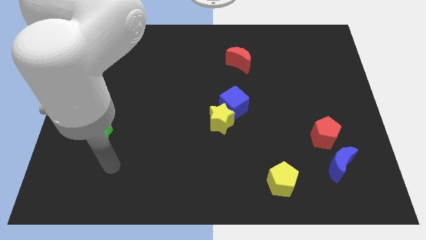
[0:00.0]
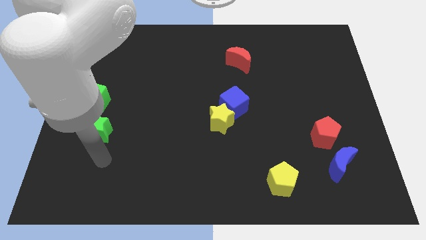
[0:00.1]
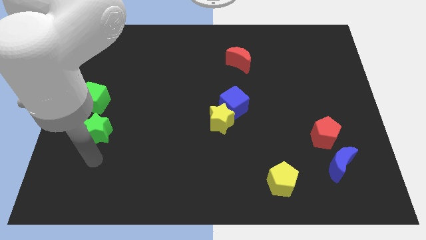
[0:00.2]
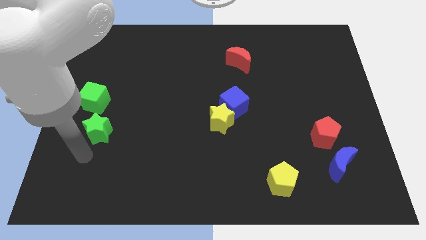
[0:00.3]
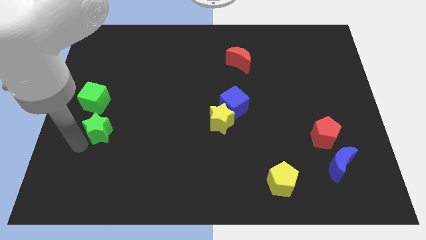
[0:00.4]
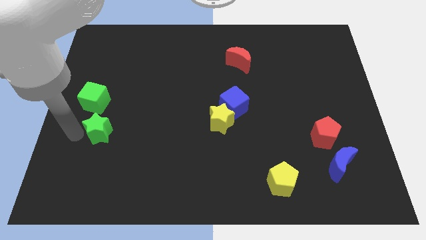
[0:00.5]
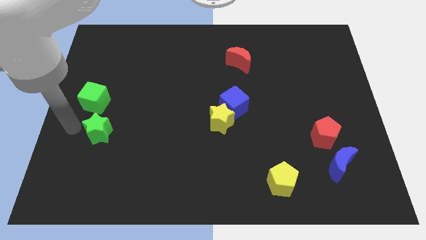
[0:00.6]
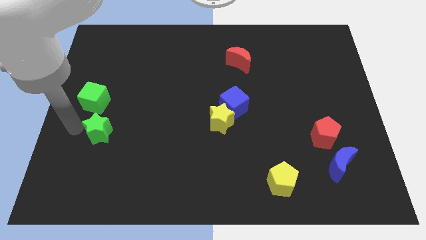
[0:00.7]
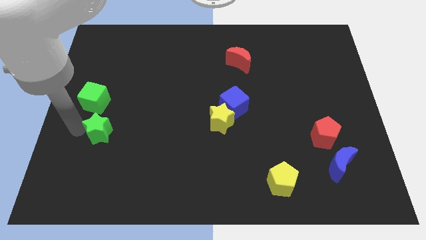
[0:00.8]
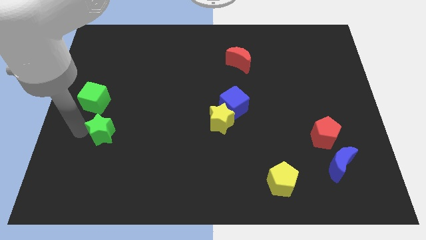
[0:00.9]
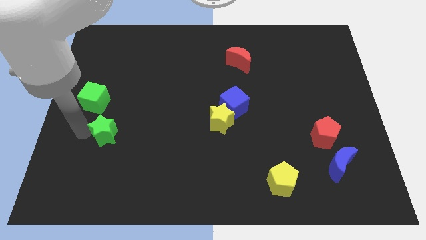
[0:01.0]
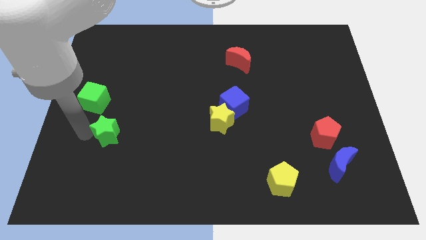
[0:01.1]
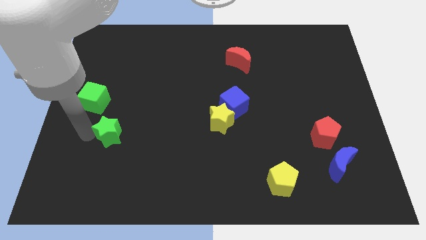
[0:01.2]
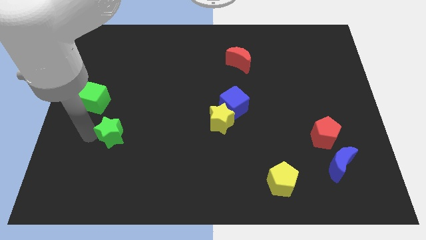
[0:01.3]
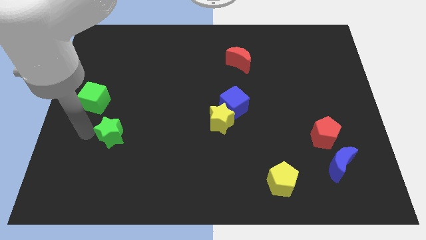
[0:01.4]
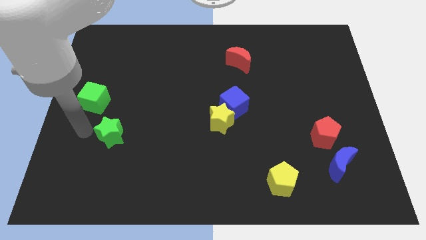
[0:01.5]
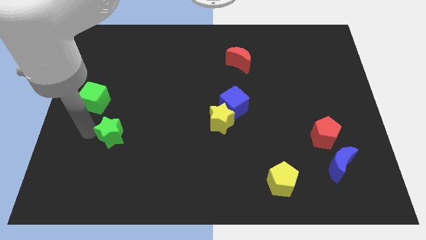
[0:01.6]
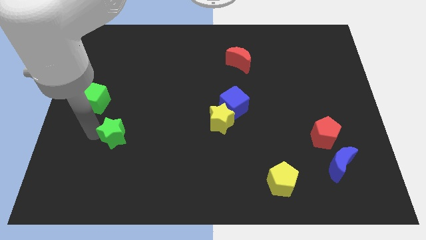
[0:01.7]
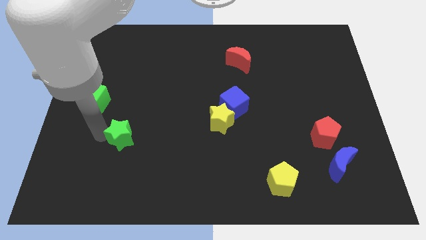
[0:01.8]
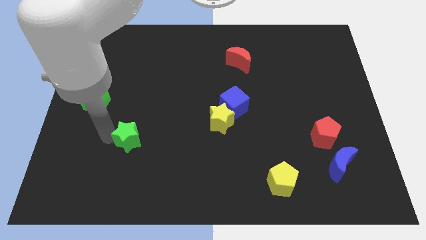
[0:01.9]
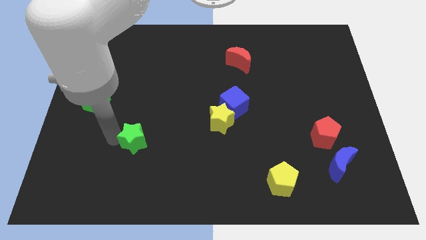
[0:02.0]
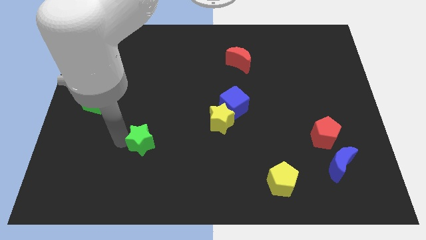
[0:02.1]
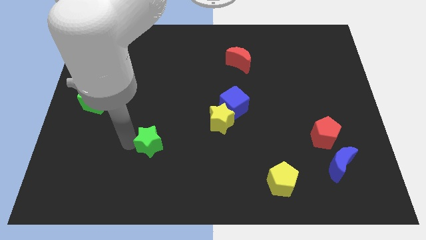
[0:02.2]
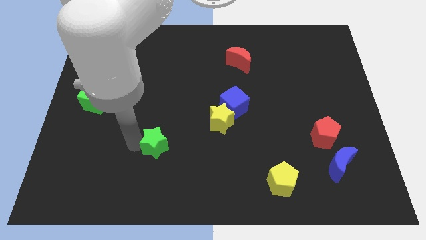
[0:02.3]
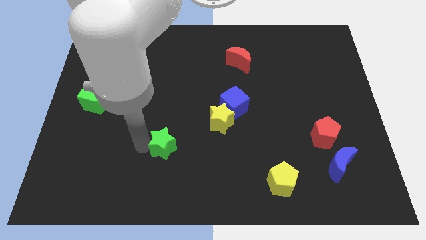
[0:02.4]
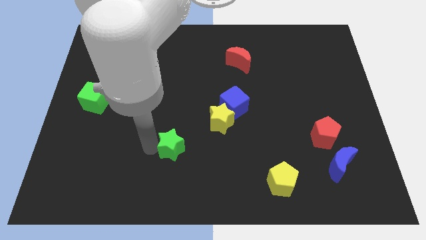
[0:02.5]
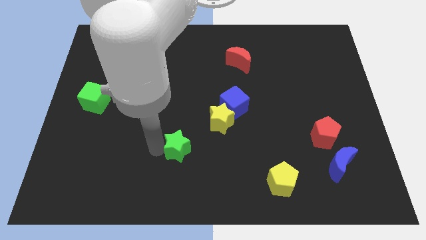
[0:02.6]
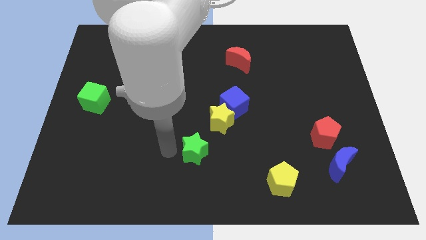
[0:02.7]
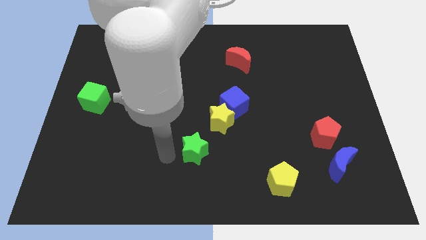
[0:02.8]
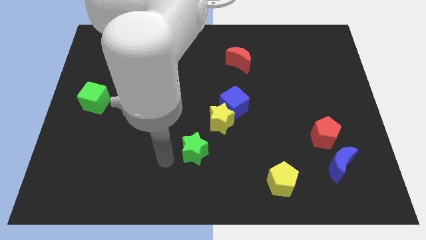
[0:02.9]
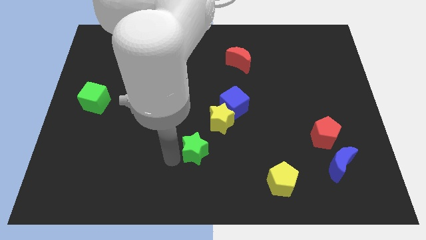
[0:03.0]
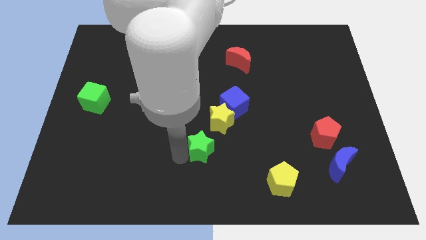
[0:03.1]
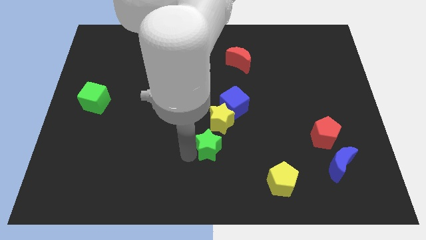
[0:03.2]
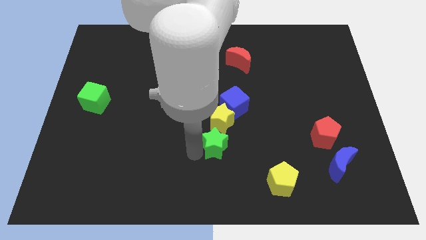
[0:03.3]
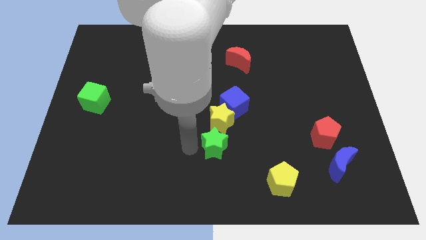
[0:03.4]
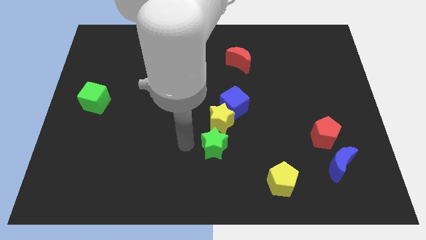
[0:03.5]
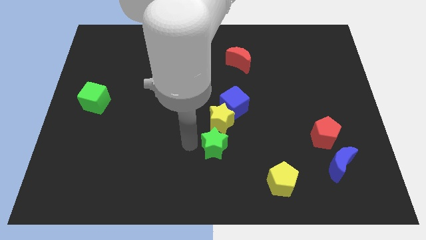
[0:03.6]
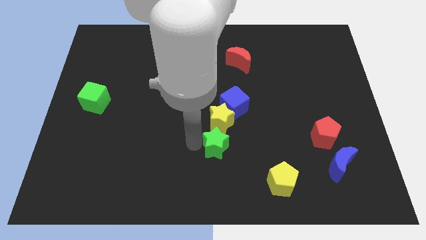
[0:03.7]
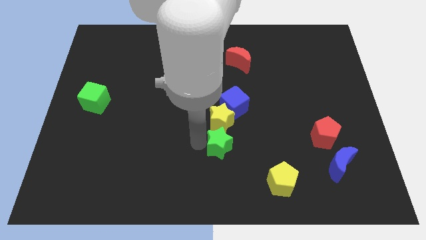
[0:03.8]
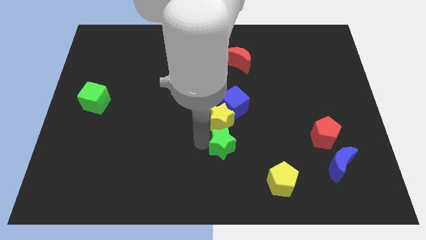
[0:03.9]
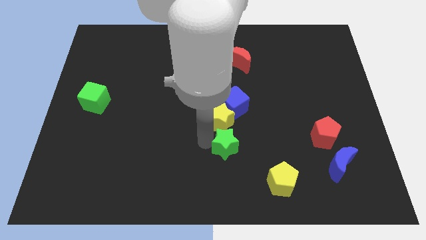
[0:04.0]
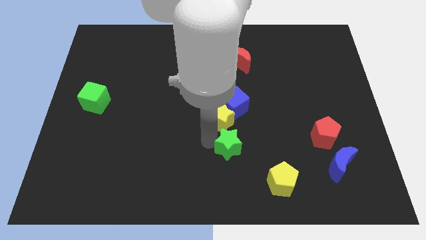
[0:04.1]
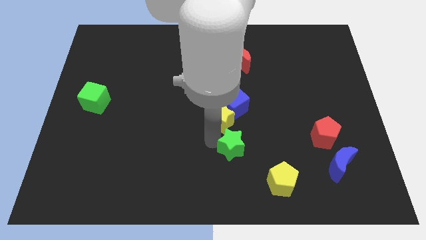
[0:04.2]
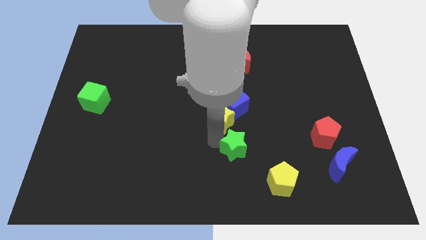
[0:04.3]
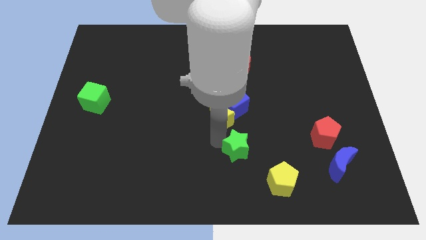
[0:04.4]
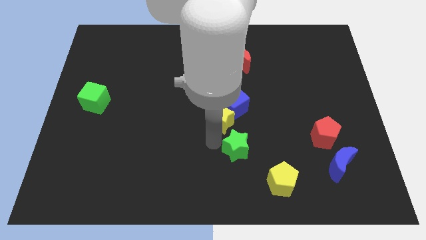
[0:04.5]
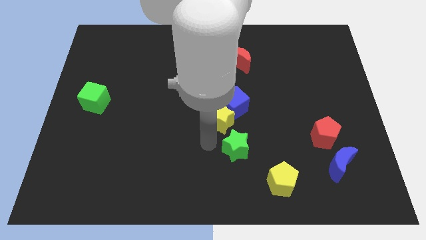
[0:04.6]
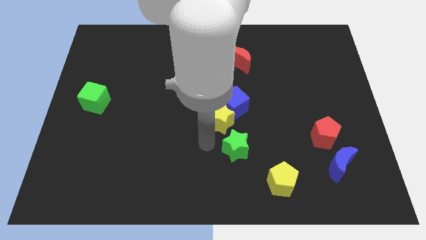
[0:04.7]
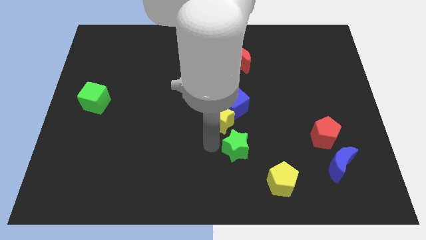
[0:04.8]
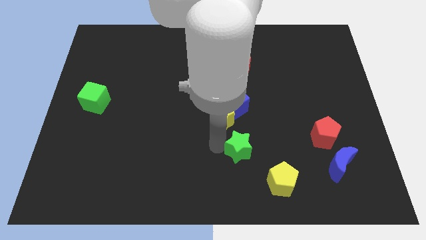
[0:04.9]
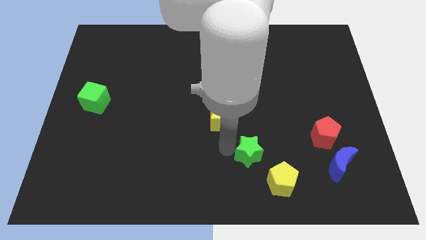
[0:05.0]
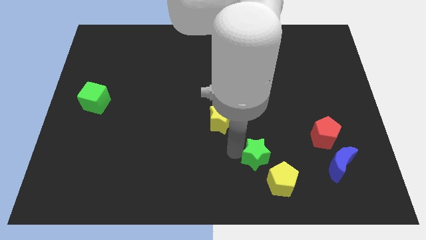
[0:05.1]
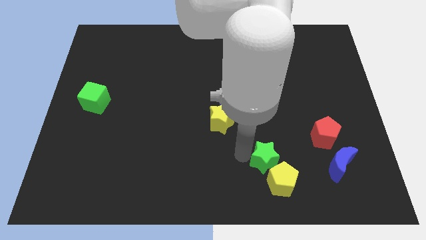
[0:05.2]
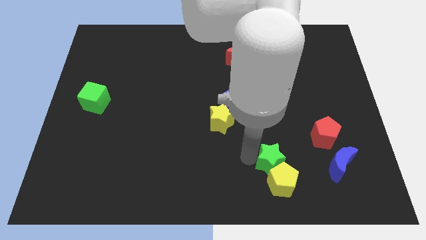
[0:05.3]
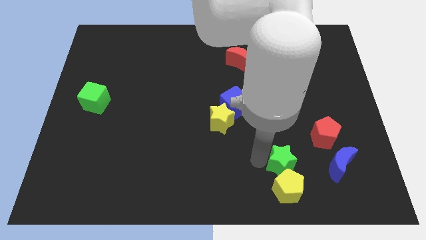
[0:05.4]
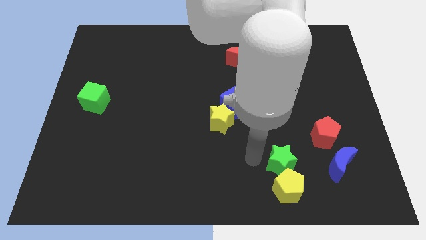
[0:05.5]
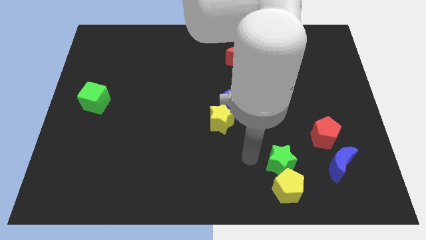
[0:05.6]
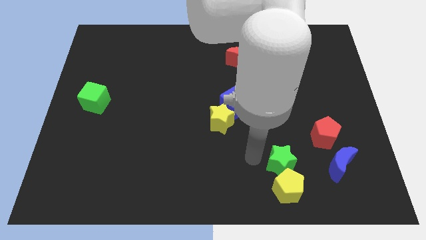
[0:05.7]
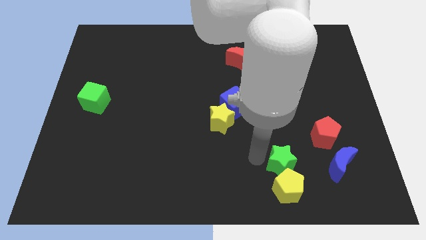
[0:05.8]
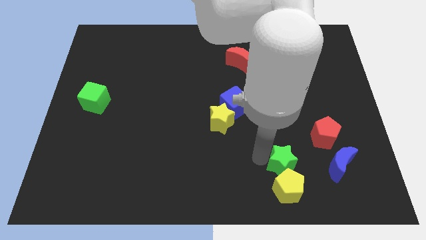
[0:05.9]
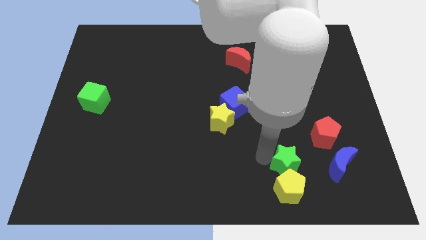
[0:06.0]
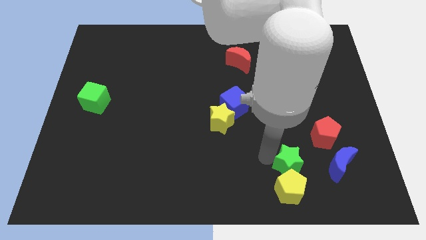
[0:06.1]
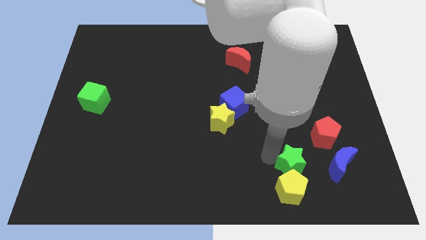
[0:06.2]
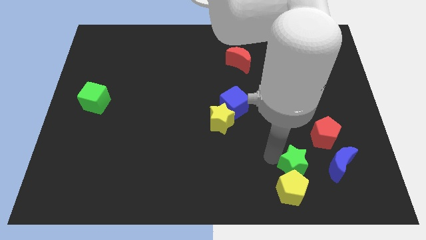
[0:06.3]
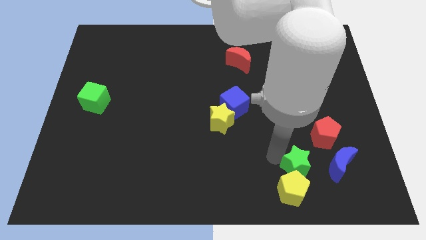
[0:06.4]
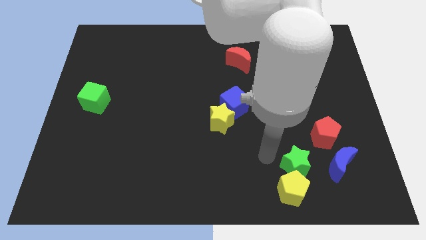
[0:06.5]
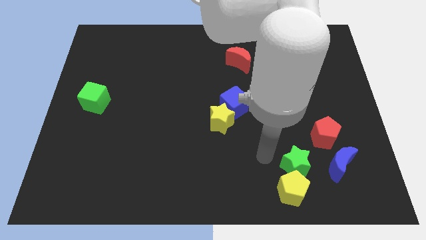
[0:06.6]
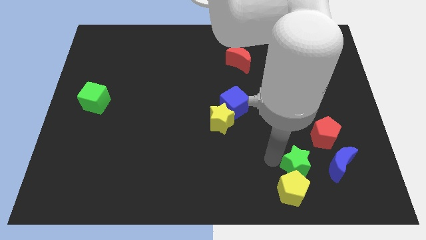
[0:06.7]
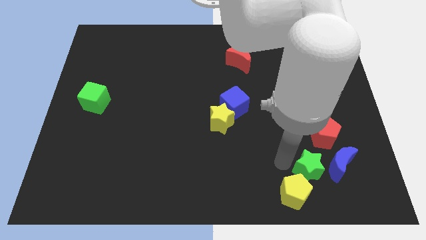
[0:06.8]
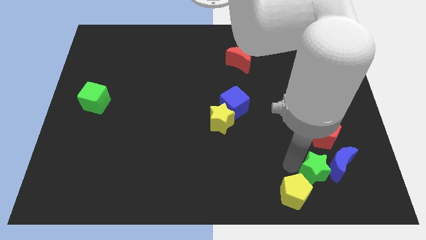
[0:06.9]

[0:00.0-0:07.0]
move the green star to the bottom side of the red pentagon

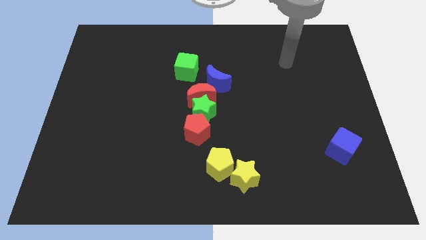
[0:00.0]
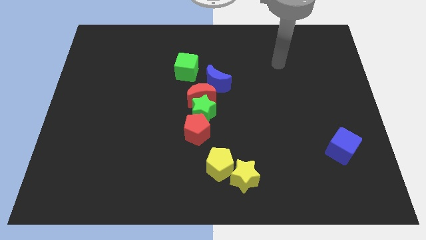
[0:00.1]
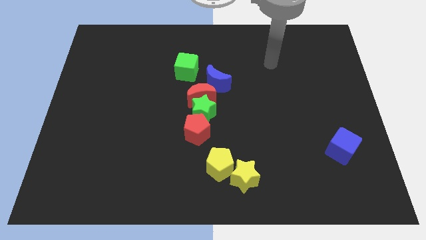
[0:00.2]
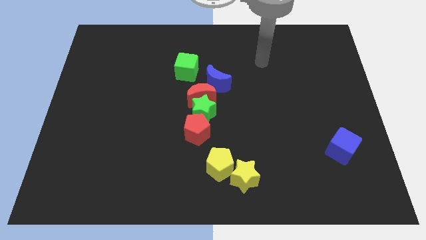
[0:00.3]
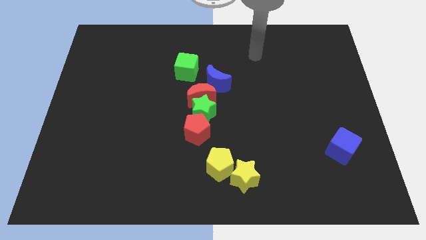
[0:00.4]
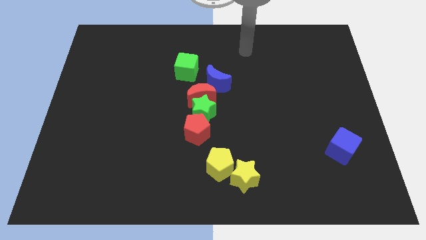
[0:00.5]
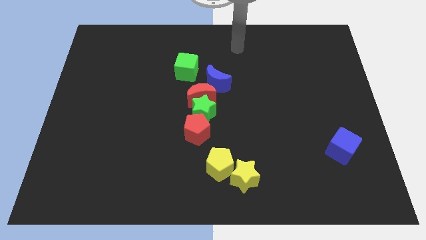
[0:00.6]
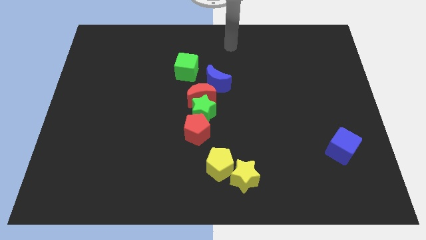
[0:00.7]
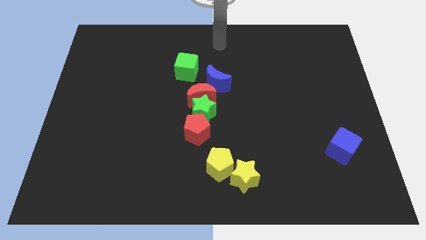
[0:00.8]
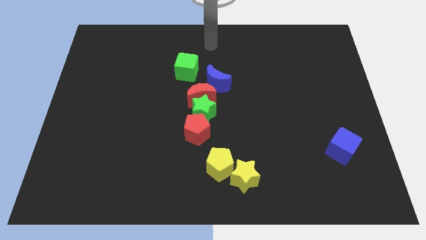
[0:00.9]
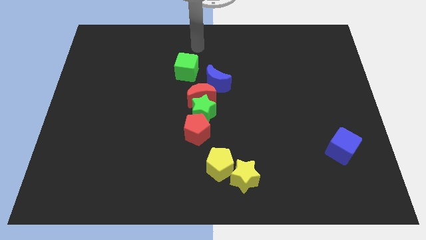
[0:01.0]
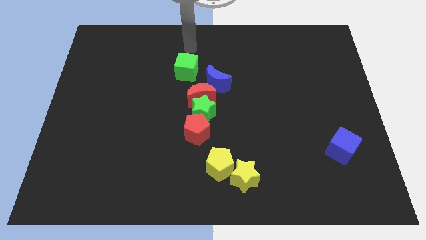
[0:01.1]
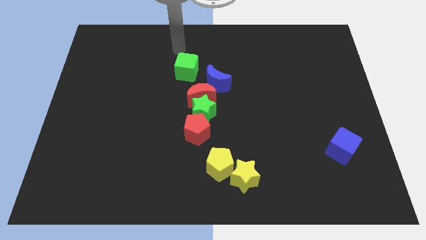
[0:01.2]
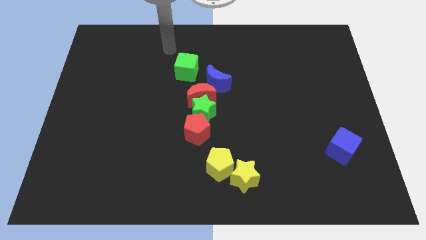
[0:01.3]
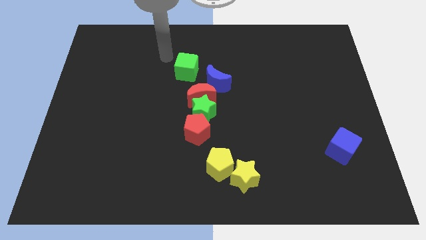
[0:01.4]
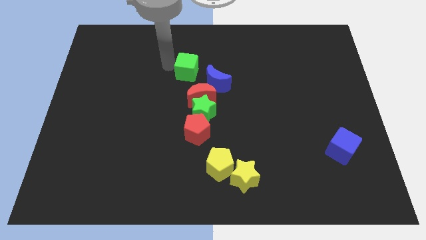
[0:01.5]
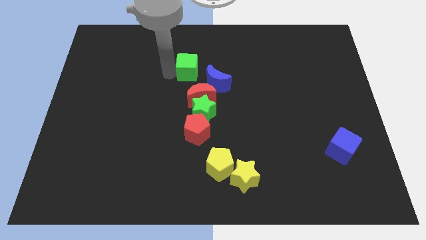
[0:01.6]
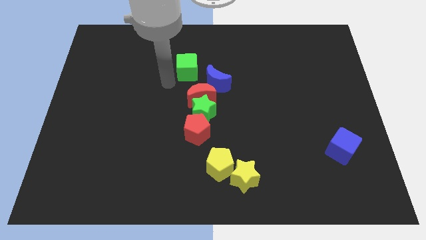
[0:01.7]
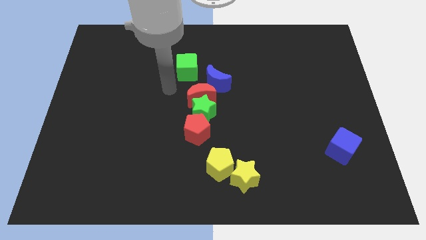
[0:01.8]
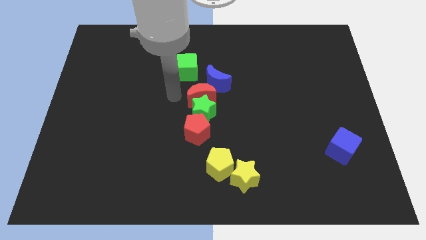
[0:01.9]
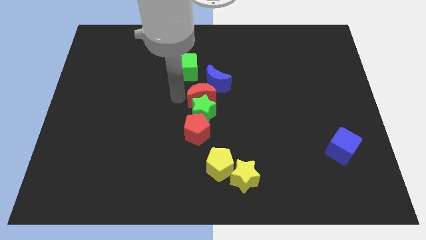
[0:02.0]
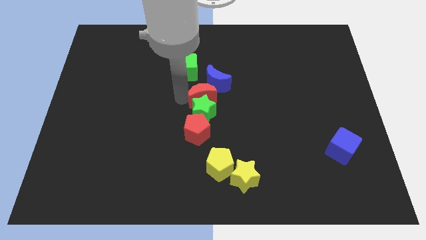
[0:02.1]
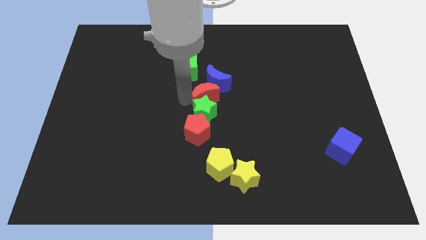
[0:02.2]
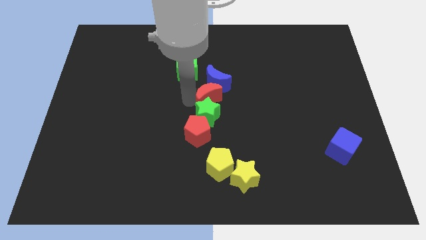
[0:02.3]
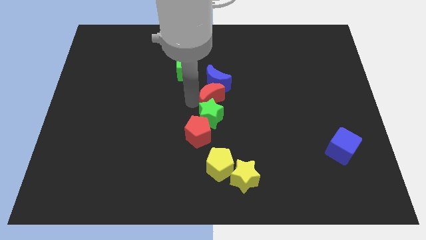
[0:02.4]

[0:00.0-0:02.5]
put the red moon to the bottom right side of the blue moon
